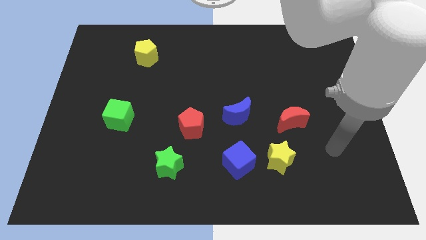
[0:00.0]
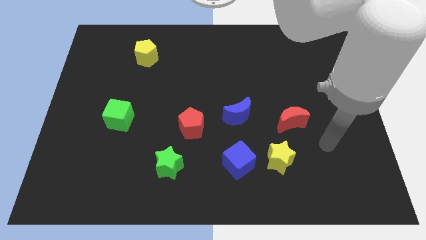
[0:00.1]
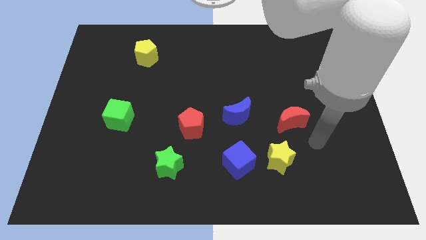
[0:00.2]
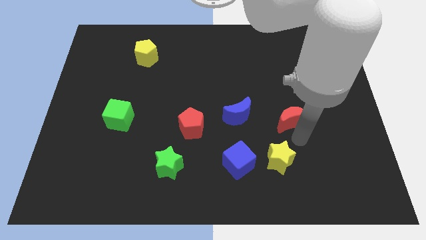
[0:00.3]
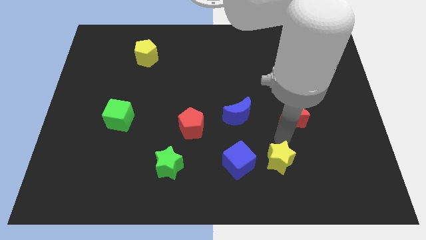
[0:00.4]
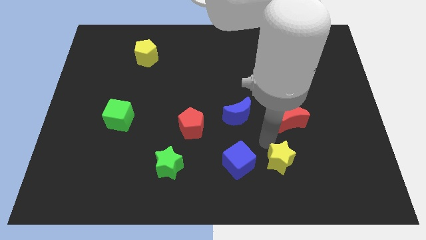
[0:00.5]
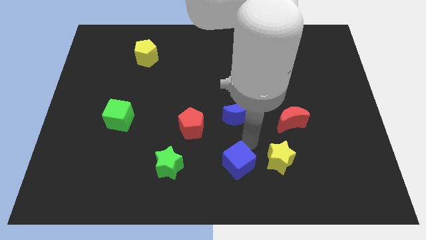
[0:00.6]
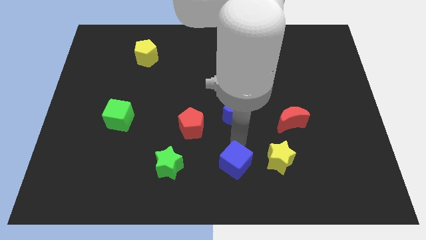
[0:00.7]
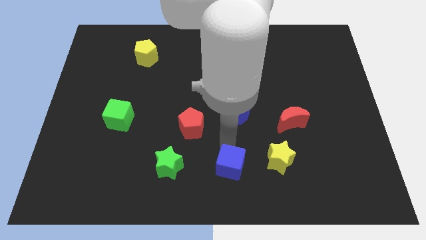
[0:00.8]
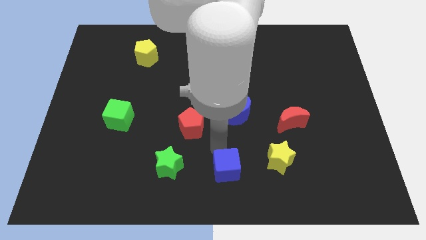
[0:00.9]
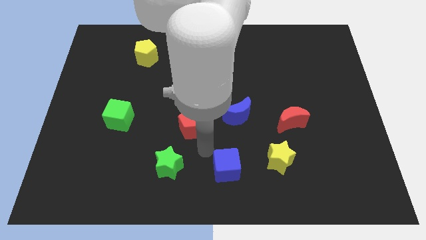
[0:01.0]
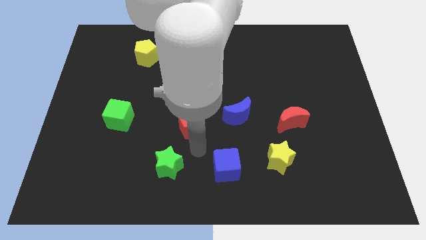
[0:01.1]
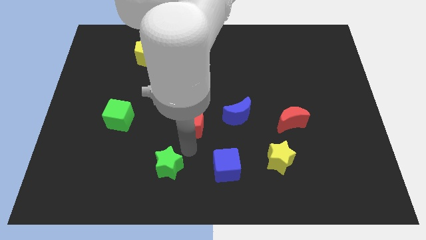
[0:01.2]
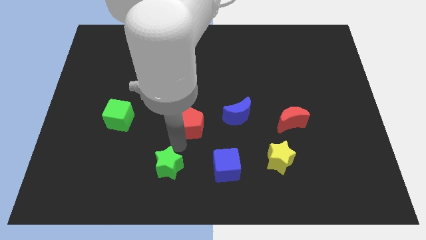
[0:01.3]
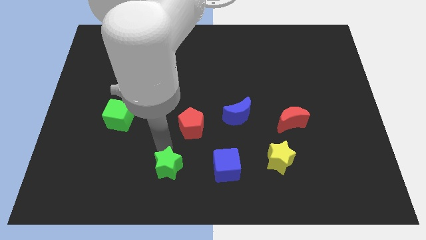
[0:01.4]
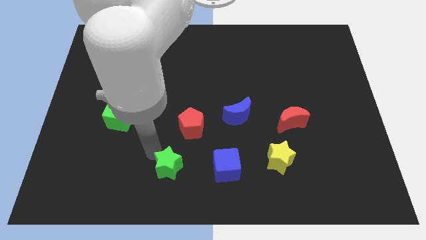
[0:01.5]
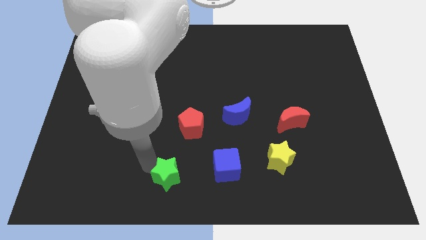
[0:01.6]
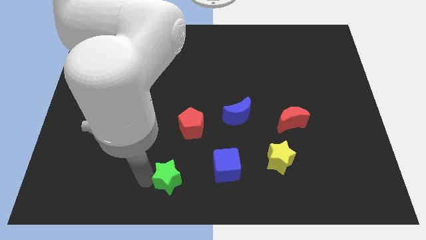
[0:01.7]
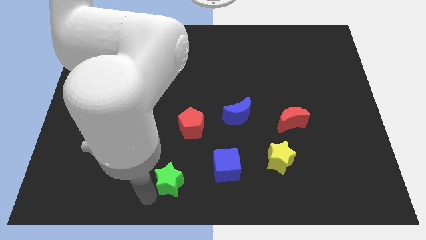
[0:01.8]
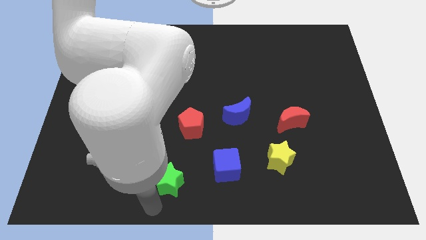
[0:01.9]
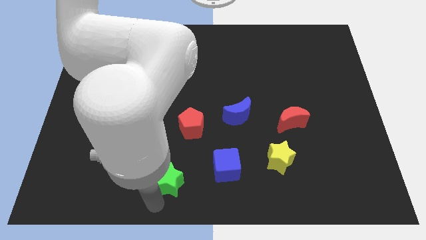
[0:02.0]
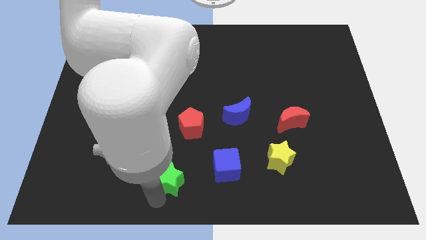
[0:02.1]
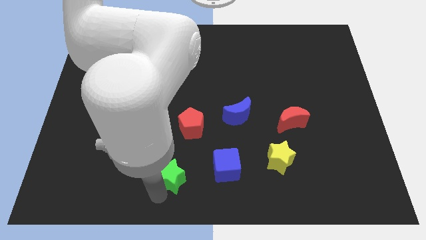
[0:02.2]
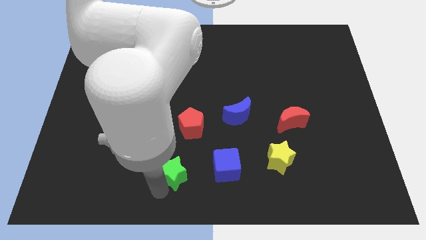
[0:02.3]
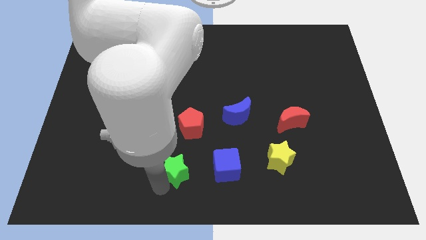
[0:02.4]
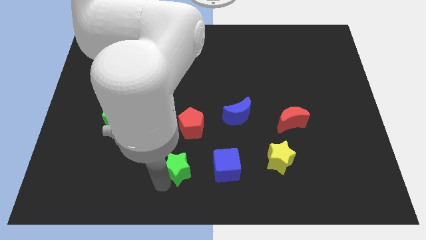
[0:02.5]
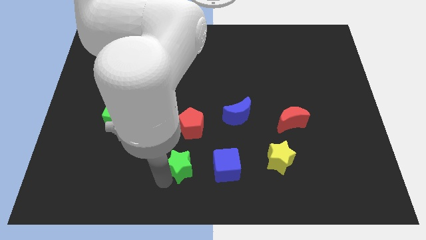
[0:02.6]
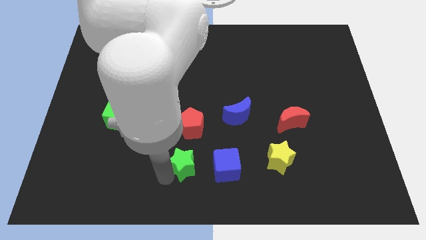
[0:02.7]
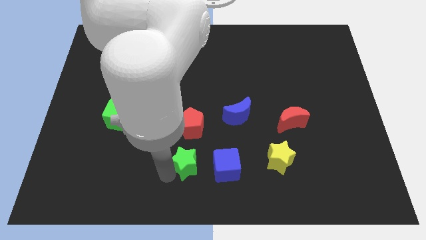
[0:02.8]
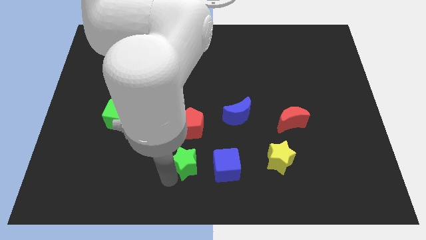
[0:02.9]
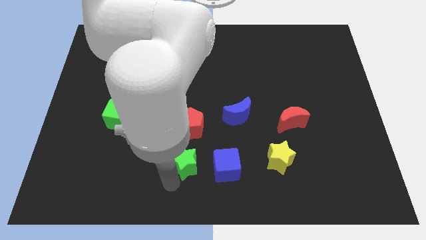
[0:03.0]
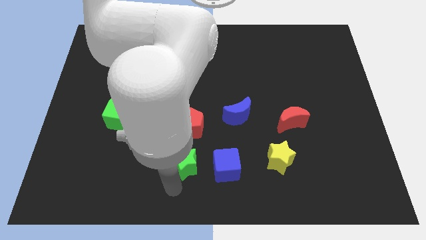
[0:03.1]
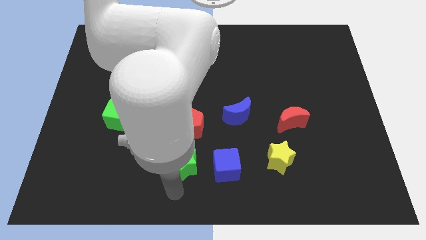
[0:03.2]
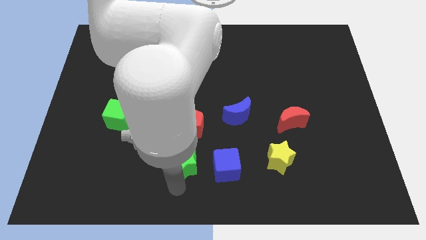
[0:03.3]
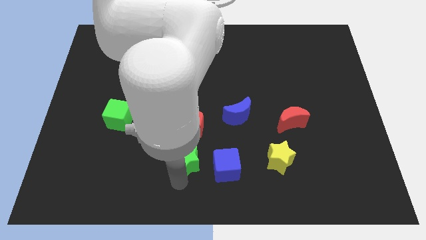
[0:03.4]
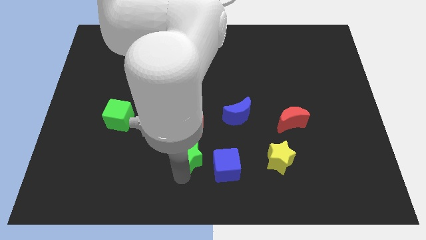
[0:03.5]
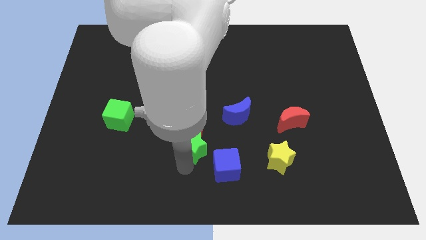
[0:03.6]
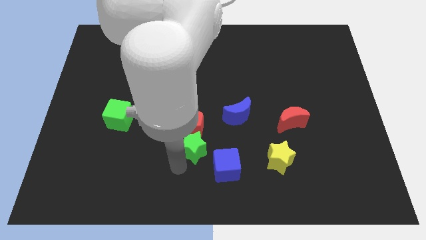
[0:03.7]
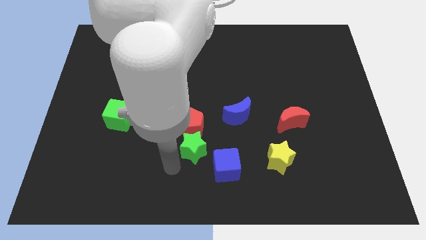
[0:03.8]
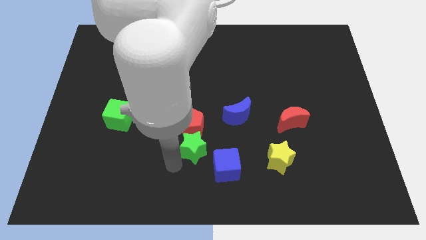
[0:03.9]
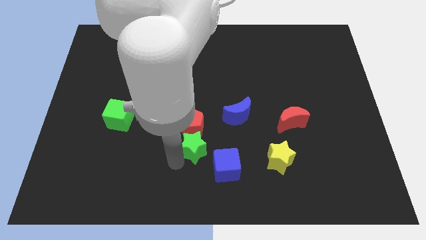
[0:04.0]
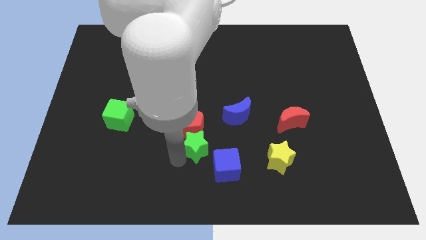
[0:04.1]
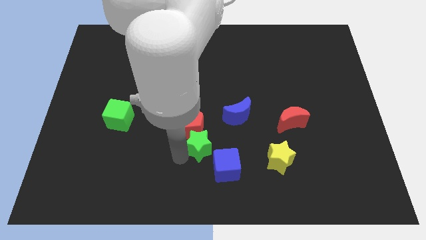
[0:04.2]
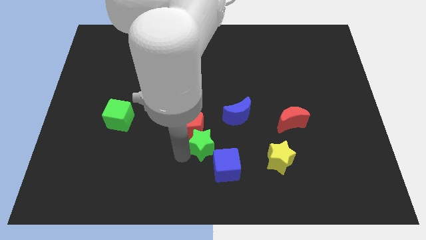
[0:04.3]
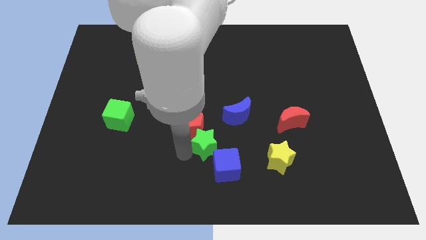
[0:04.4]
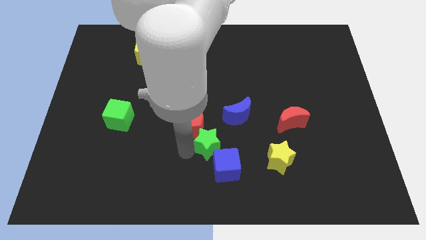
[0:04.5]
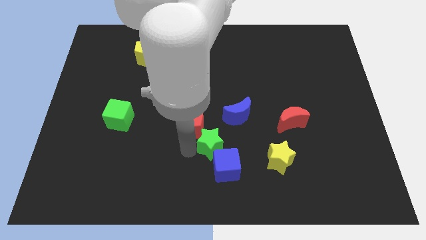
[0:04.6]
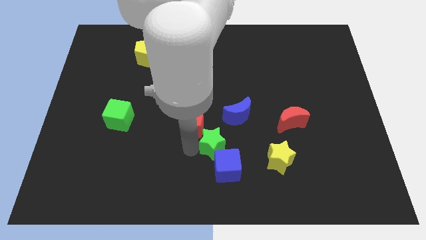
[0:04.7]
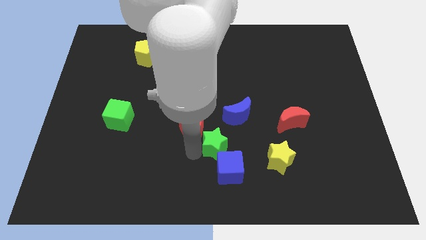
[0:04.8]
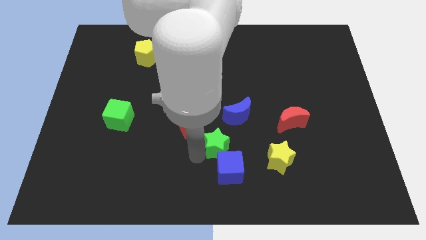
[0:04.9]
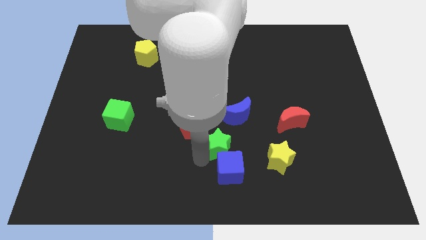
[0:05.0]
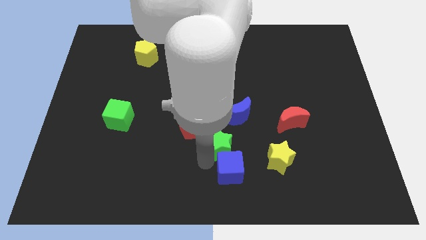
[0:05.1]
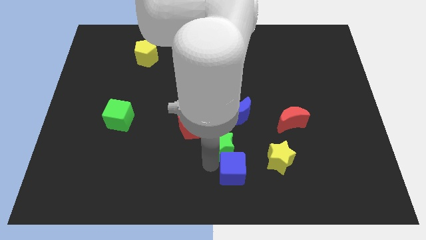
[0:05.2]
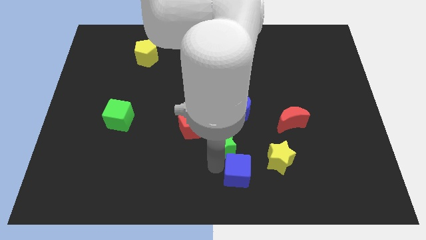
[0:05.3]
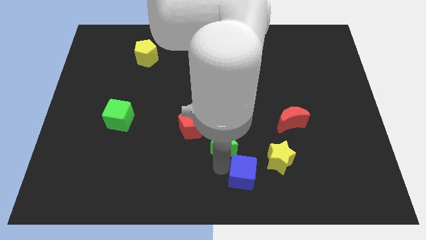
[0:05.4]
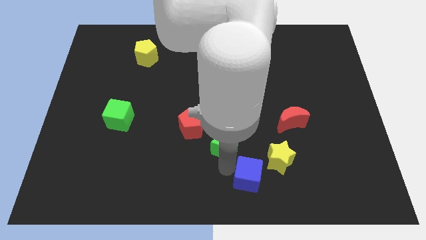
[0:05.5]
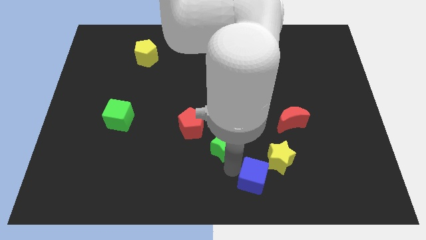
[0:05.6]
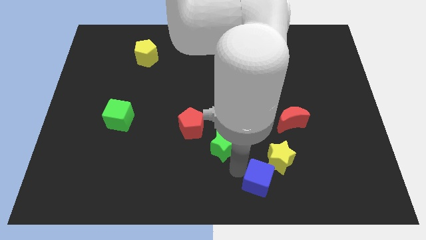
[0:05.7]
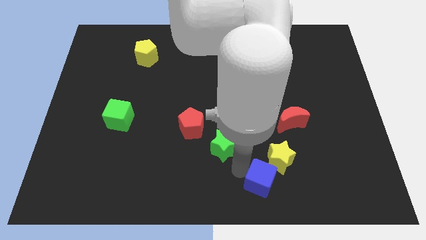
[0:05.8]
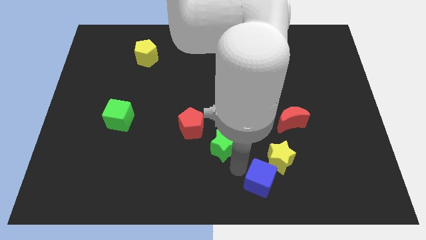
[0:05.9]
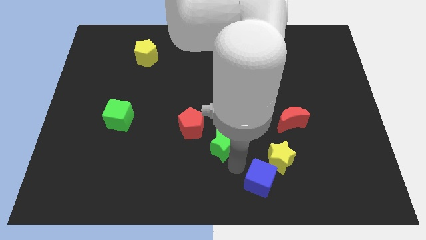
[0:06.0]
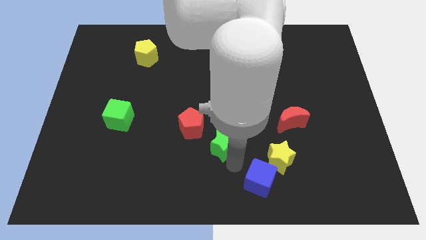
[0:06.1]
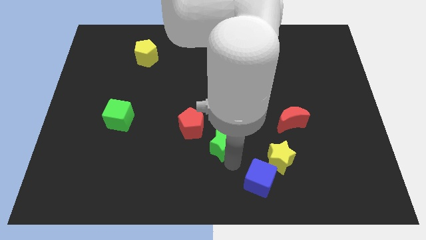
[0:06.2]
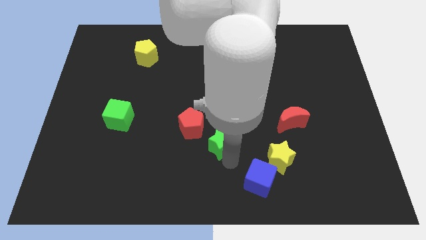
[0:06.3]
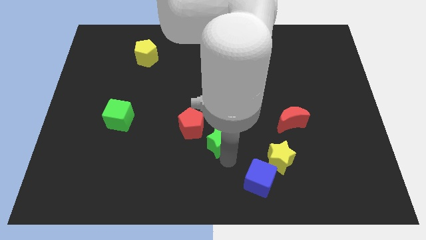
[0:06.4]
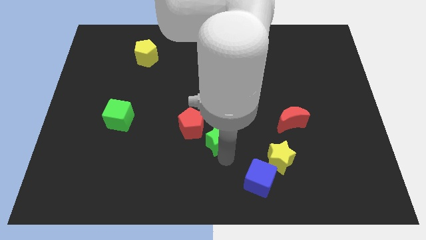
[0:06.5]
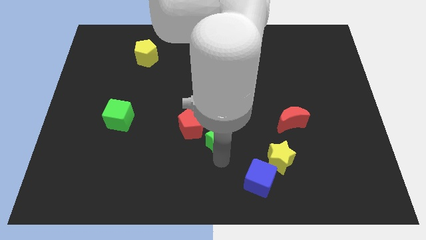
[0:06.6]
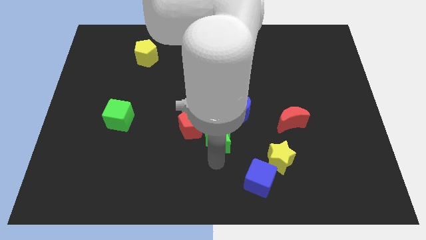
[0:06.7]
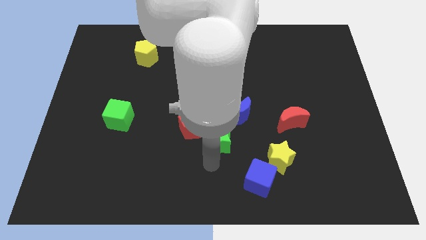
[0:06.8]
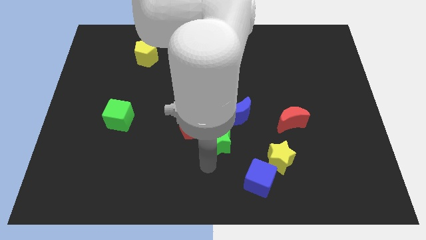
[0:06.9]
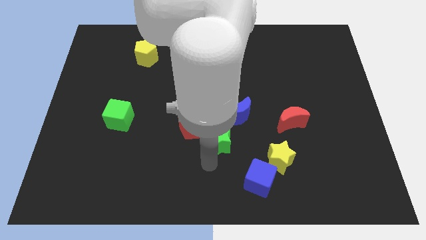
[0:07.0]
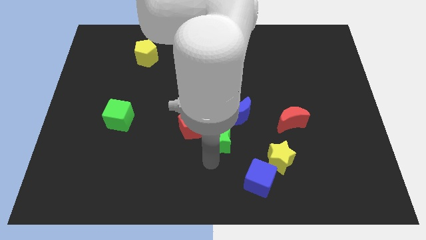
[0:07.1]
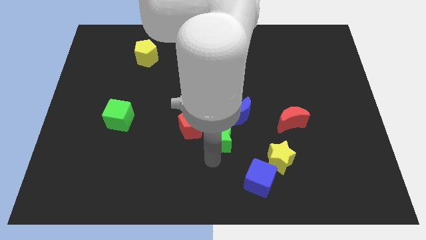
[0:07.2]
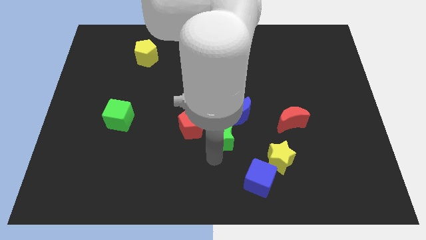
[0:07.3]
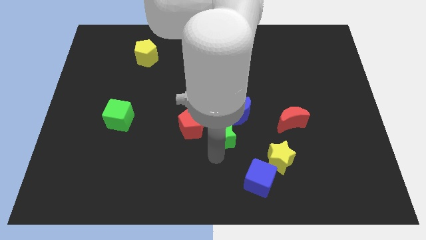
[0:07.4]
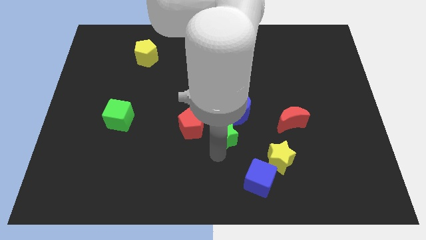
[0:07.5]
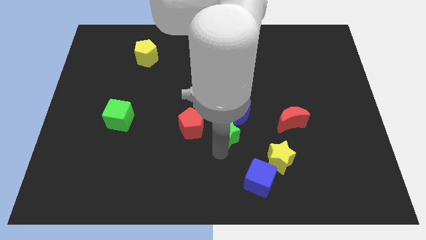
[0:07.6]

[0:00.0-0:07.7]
move the green star close to the blue moon
